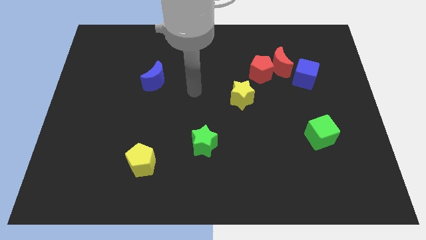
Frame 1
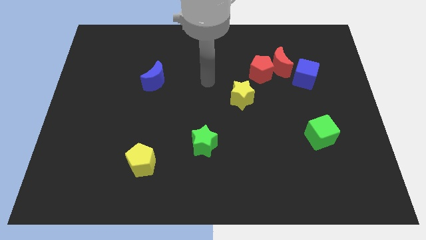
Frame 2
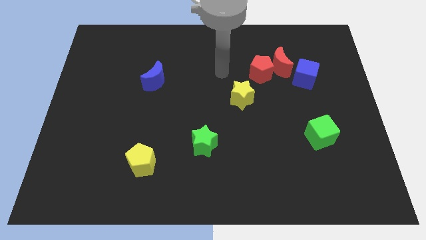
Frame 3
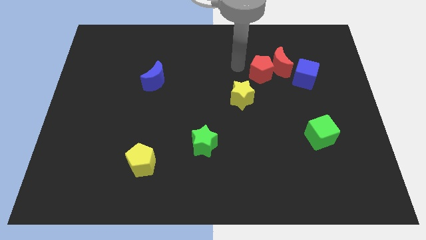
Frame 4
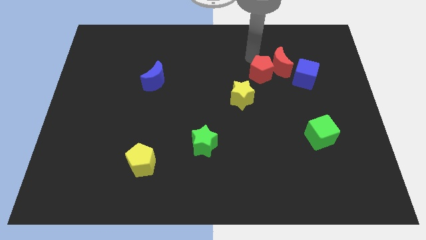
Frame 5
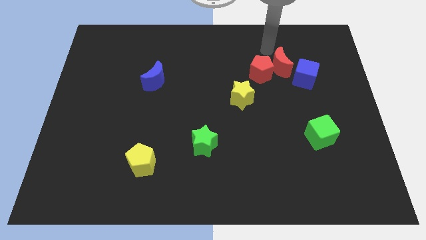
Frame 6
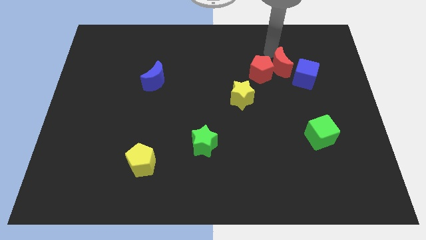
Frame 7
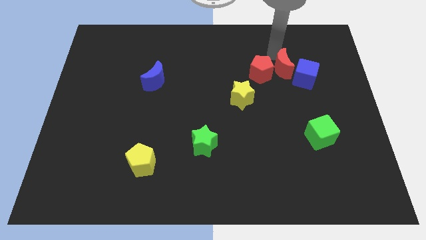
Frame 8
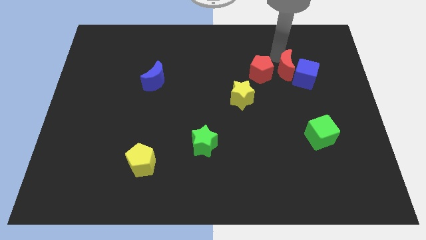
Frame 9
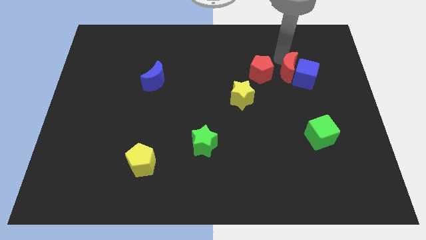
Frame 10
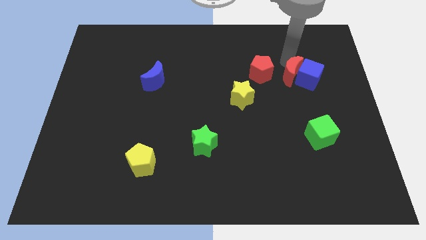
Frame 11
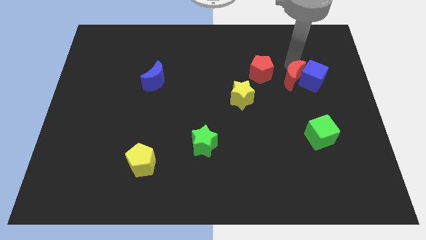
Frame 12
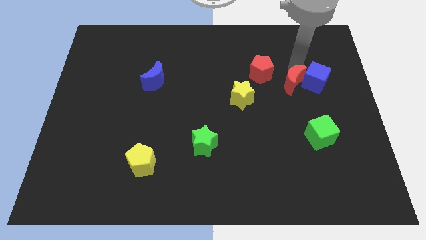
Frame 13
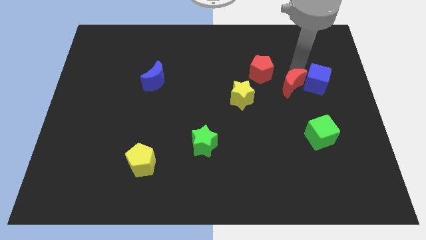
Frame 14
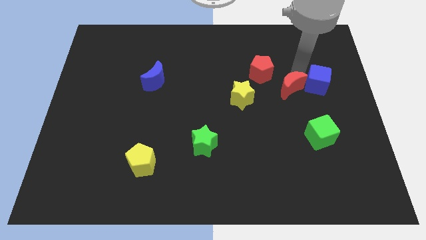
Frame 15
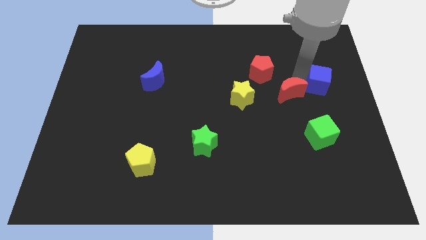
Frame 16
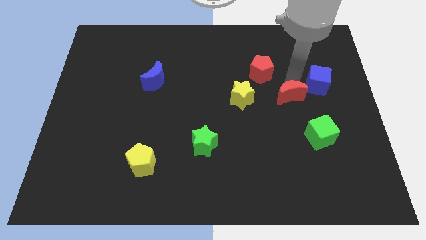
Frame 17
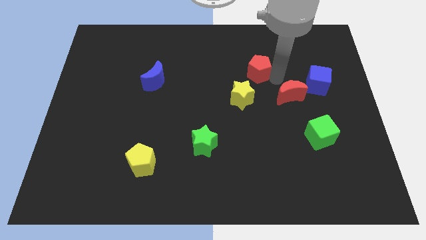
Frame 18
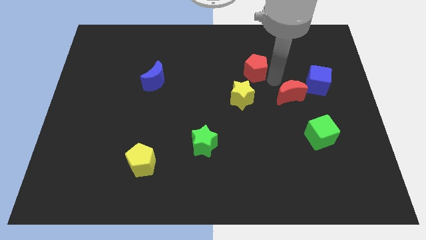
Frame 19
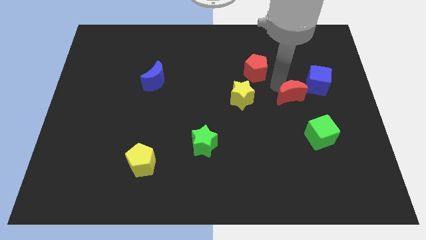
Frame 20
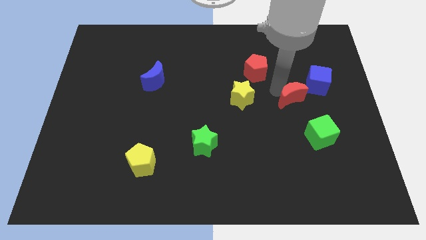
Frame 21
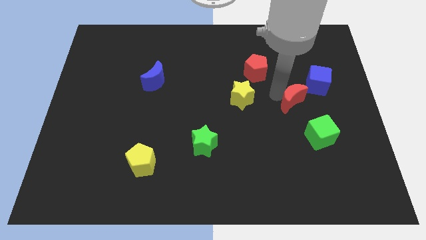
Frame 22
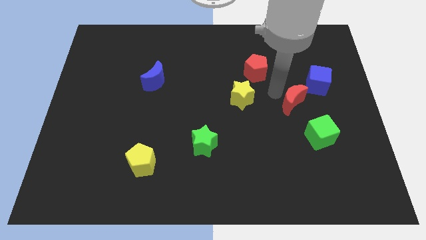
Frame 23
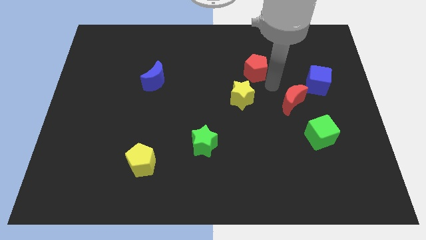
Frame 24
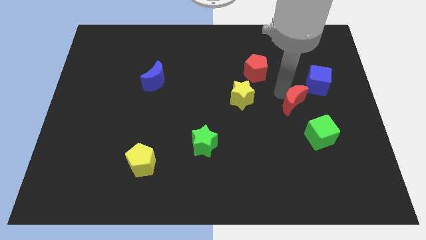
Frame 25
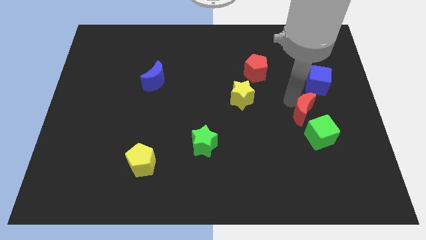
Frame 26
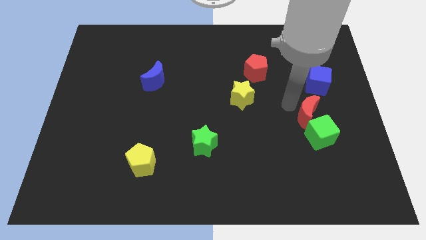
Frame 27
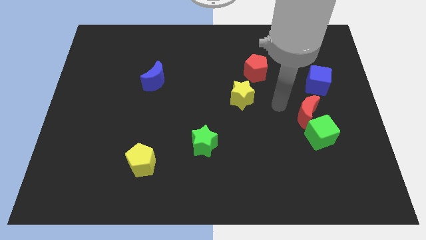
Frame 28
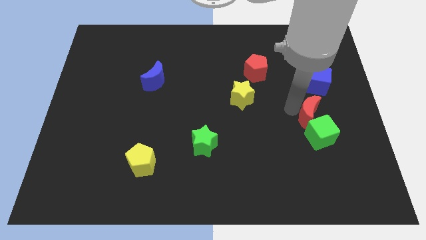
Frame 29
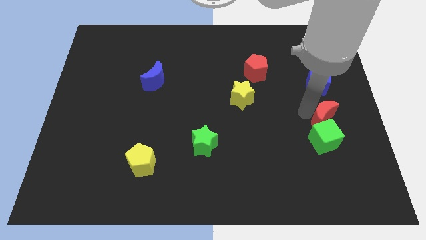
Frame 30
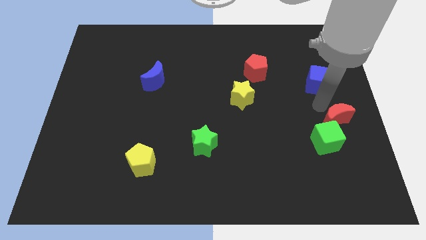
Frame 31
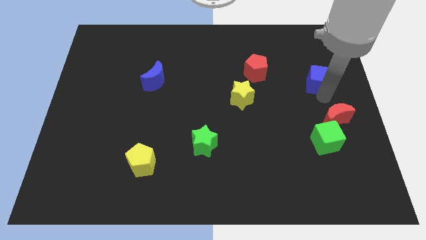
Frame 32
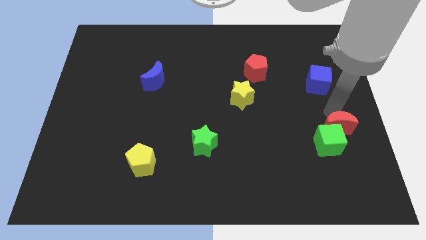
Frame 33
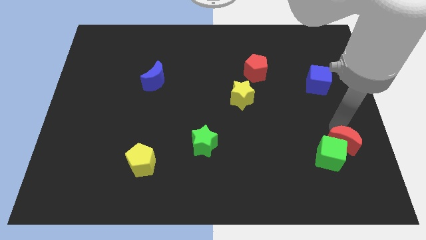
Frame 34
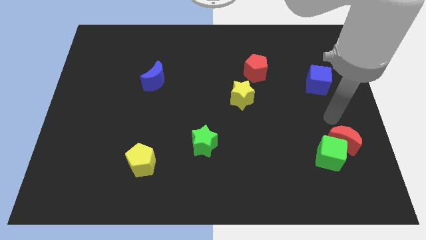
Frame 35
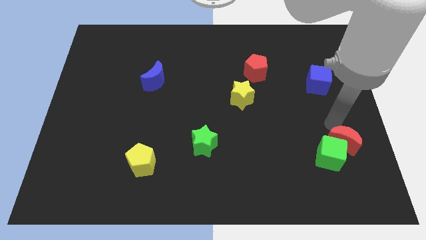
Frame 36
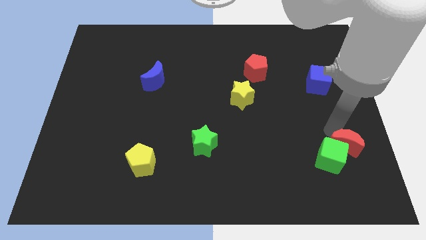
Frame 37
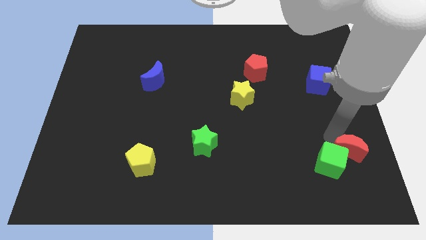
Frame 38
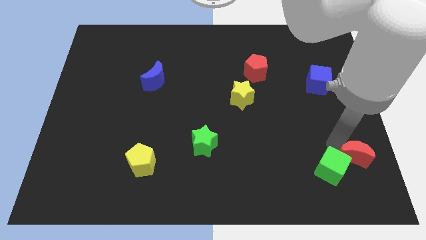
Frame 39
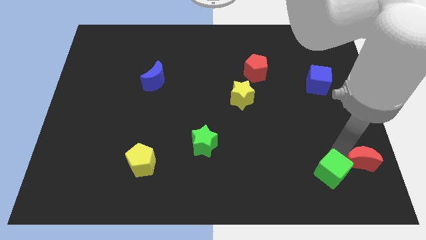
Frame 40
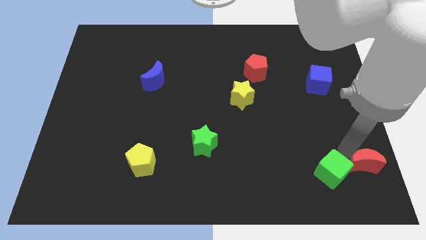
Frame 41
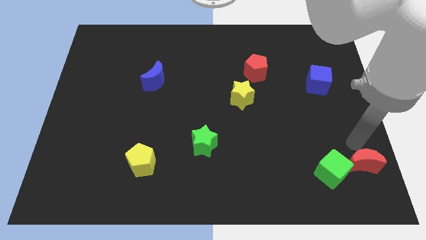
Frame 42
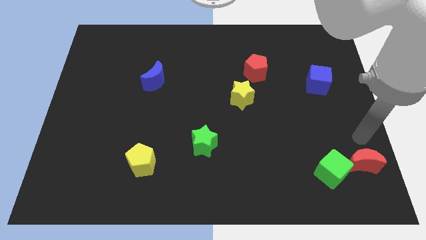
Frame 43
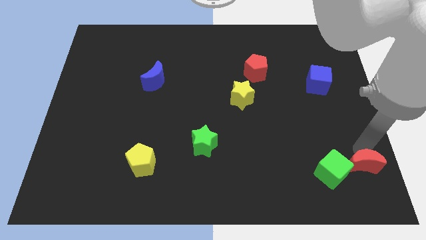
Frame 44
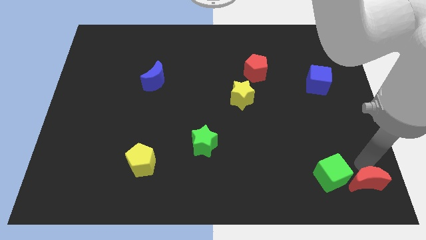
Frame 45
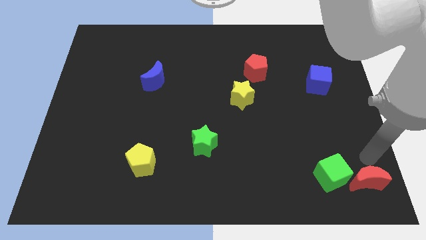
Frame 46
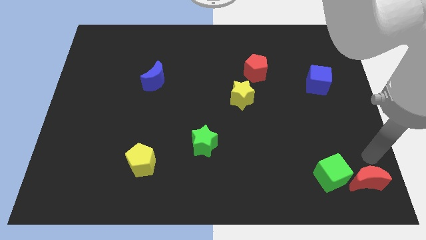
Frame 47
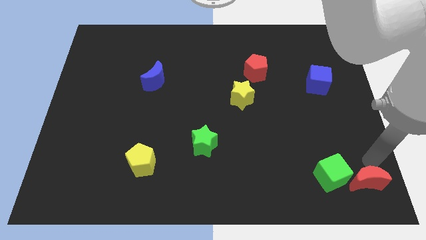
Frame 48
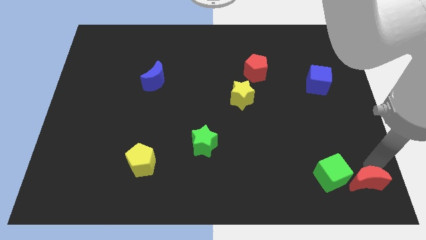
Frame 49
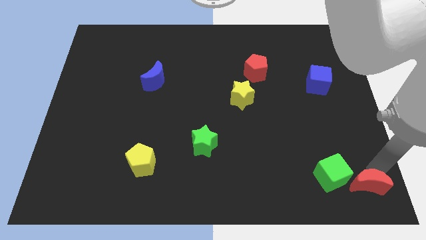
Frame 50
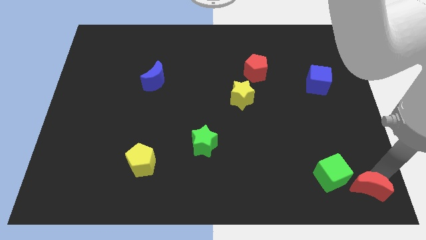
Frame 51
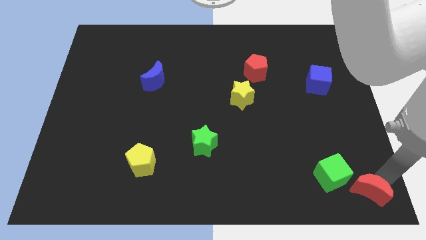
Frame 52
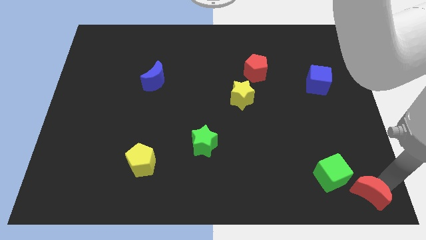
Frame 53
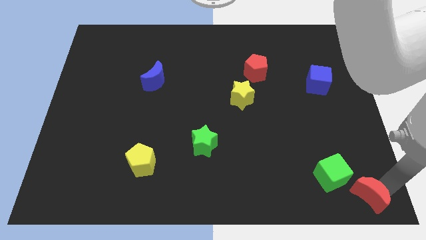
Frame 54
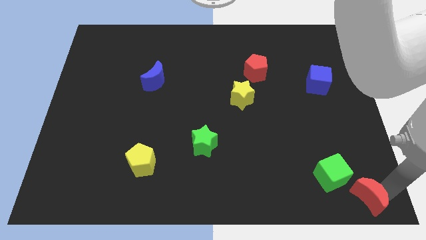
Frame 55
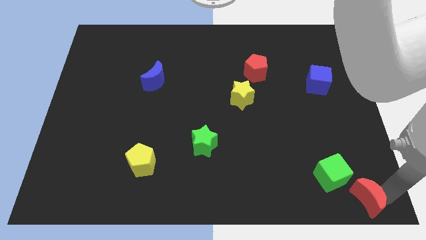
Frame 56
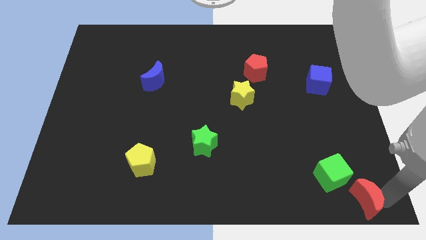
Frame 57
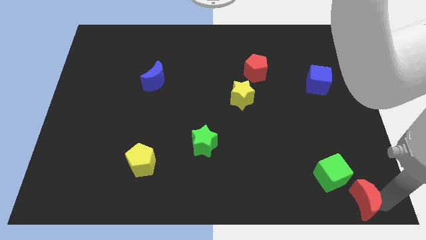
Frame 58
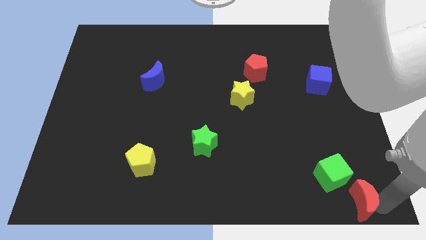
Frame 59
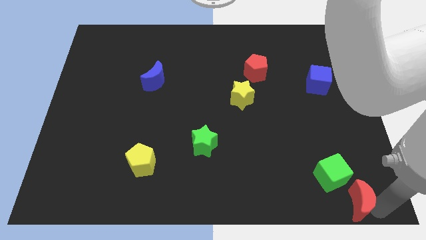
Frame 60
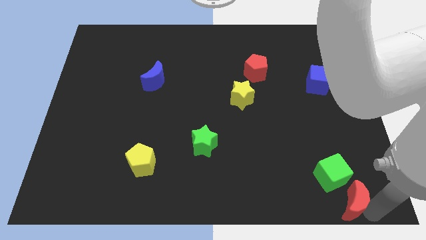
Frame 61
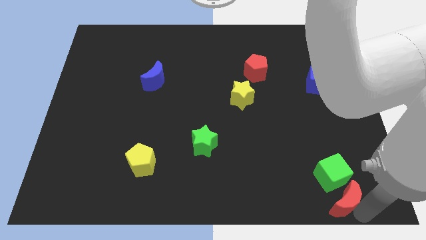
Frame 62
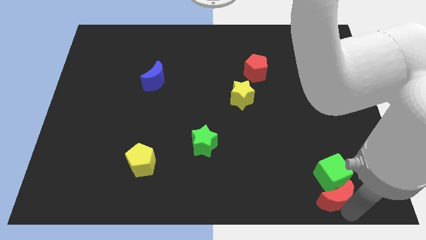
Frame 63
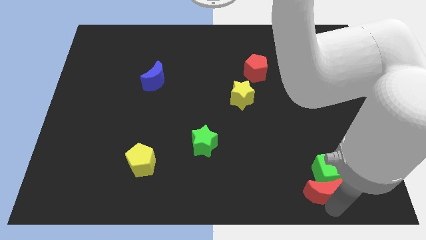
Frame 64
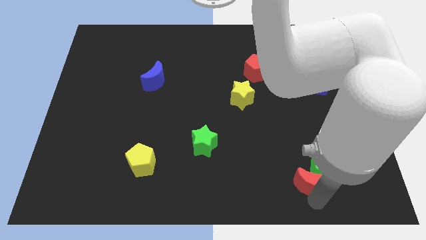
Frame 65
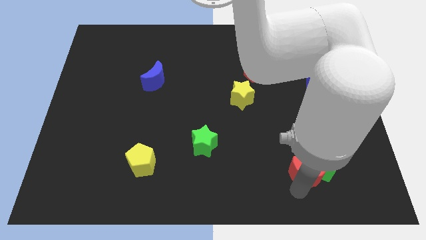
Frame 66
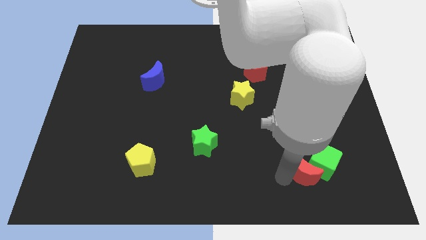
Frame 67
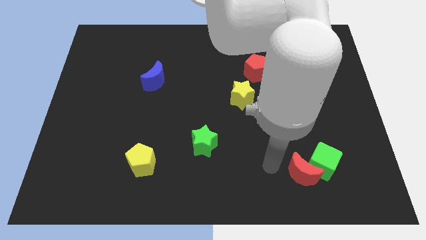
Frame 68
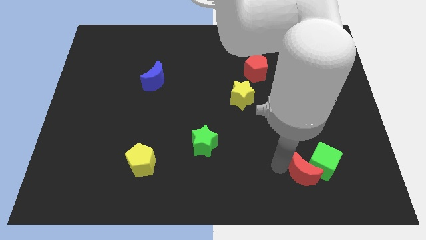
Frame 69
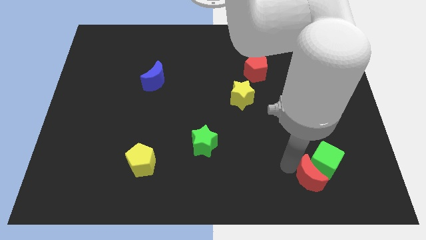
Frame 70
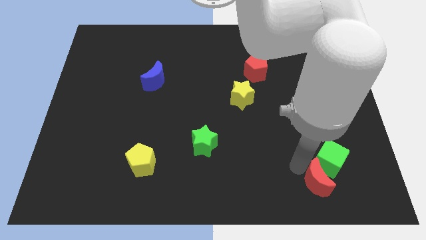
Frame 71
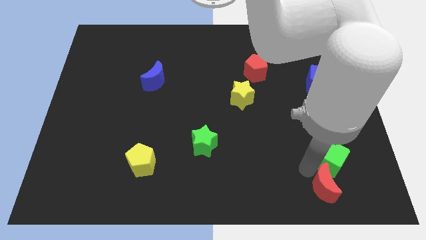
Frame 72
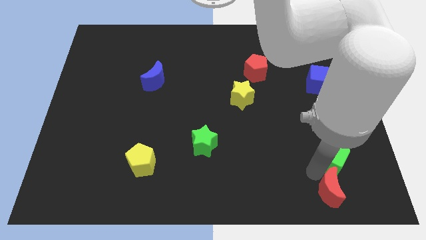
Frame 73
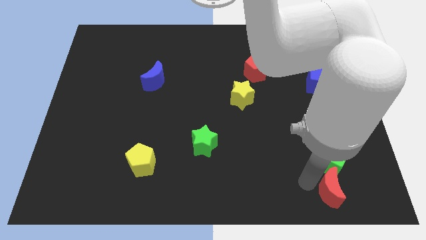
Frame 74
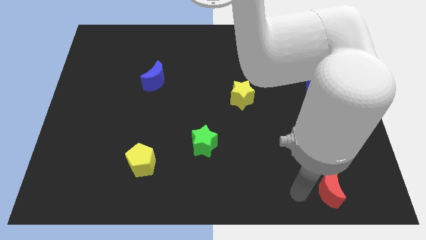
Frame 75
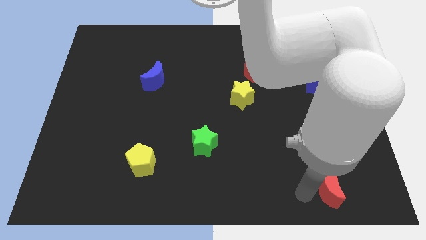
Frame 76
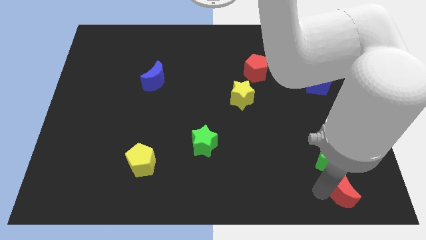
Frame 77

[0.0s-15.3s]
push the red moon to the bottom right of the green cube
